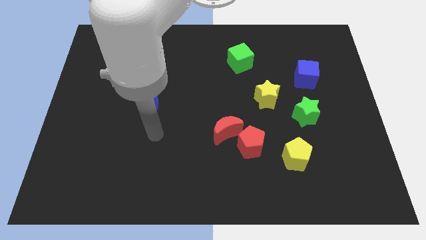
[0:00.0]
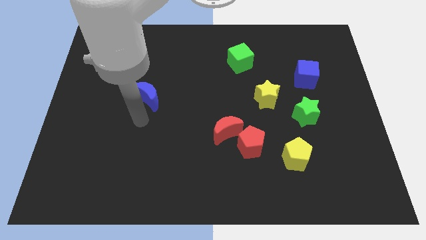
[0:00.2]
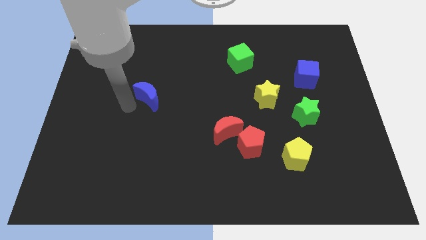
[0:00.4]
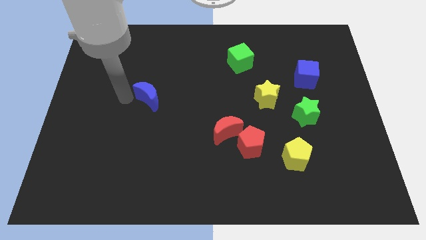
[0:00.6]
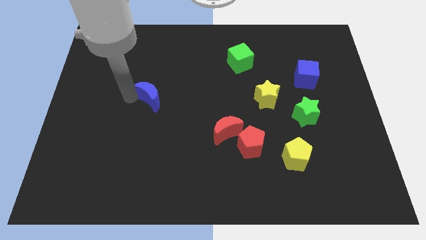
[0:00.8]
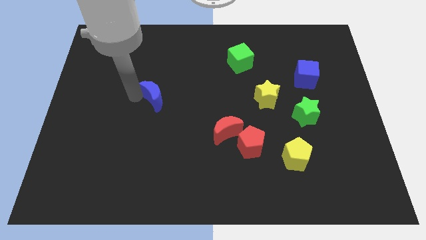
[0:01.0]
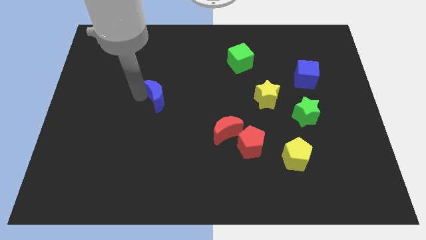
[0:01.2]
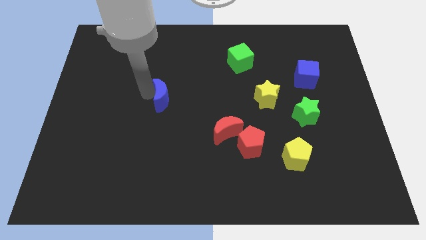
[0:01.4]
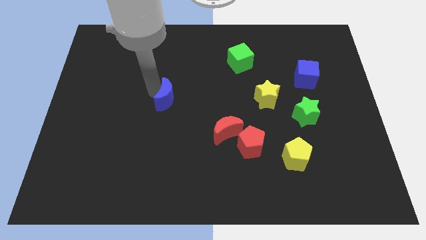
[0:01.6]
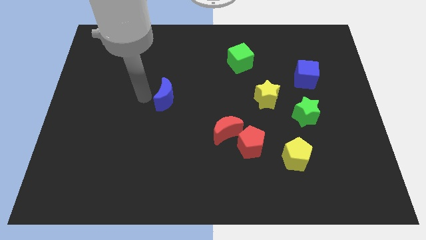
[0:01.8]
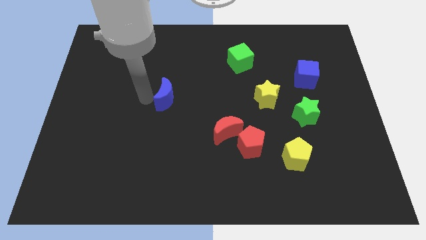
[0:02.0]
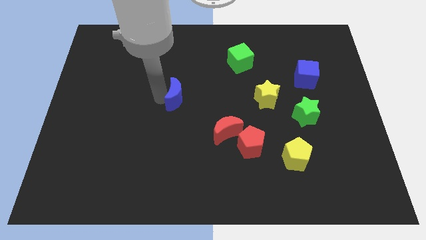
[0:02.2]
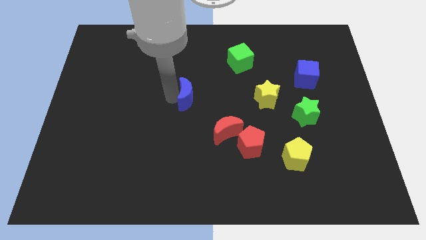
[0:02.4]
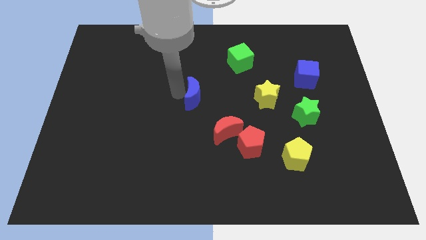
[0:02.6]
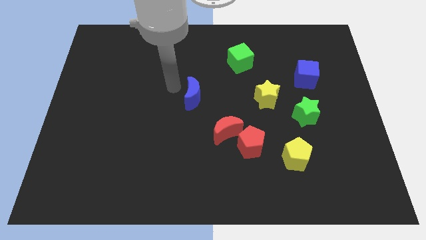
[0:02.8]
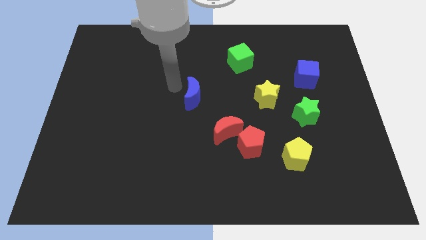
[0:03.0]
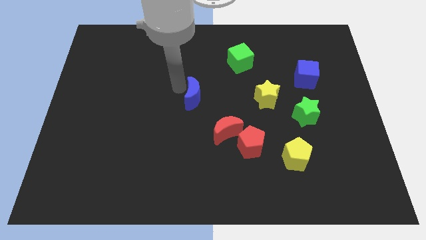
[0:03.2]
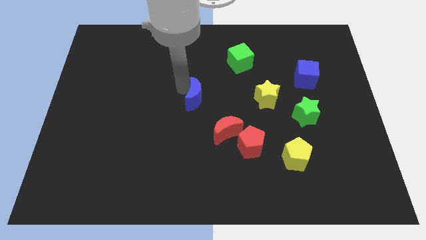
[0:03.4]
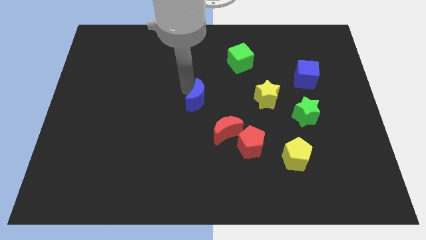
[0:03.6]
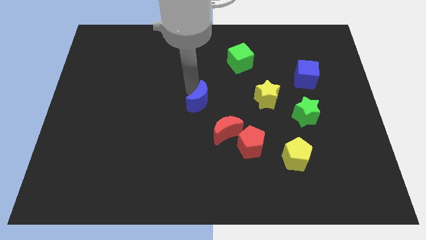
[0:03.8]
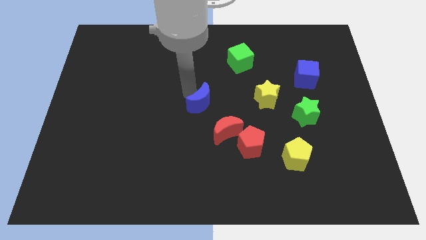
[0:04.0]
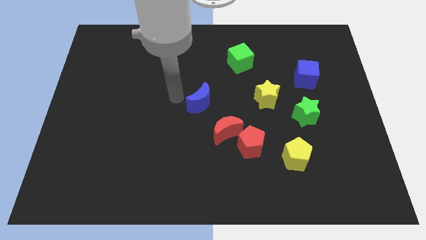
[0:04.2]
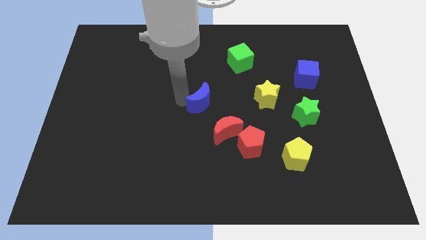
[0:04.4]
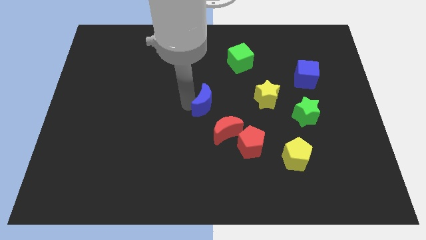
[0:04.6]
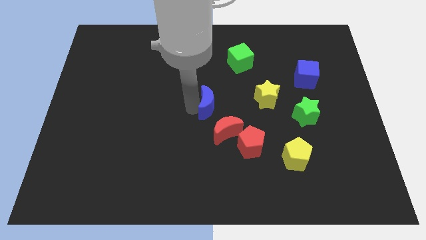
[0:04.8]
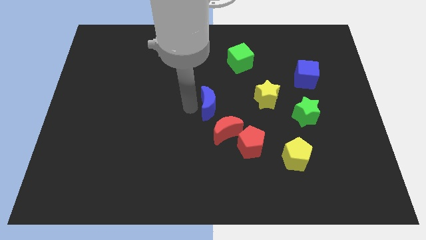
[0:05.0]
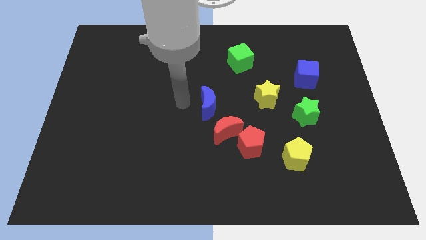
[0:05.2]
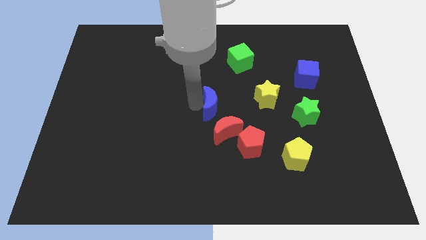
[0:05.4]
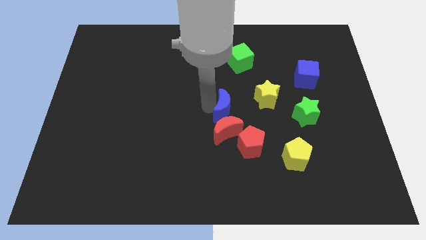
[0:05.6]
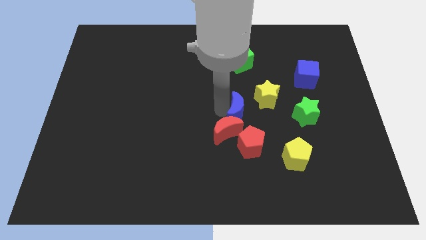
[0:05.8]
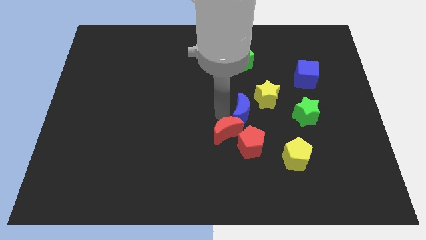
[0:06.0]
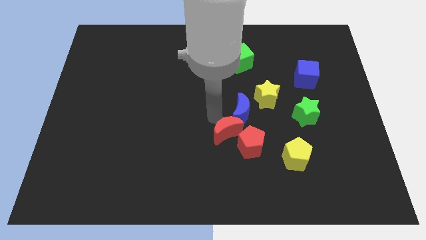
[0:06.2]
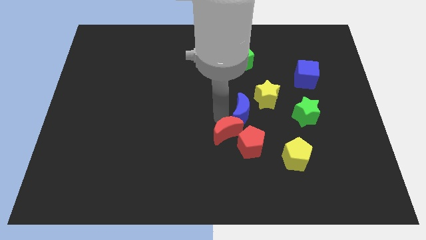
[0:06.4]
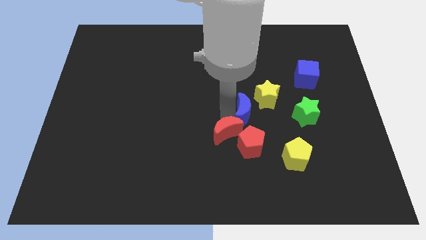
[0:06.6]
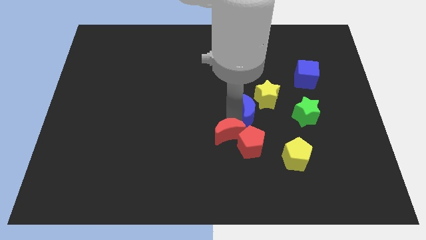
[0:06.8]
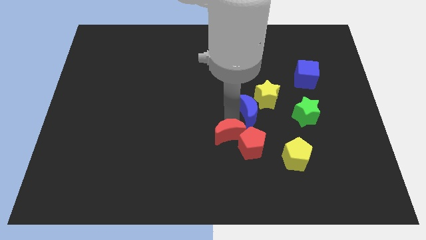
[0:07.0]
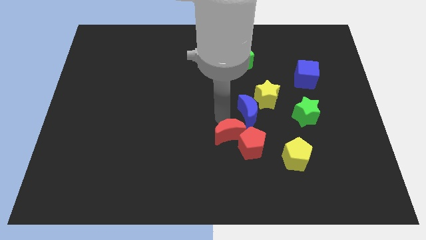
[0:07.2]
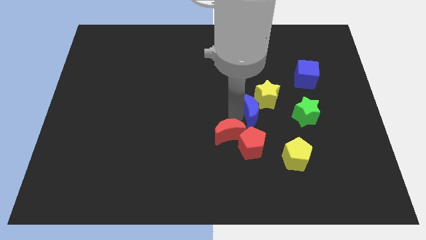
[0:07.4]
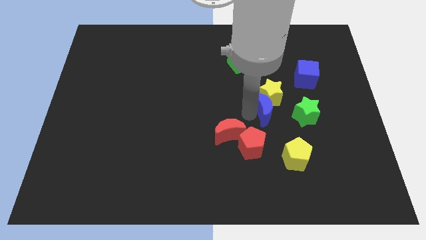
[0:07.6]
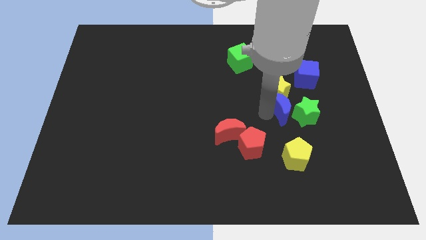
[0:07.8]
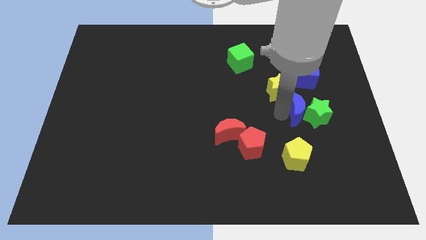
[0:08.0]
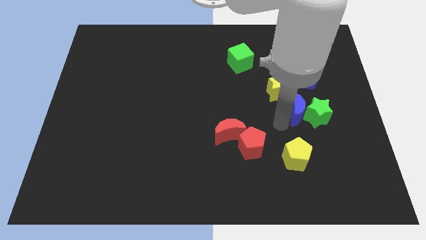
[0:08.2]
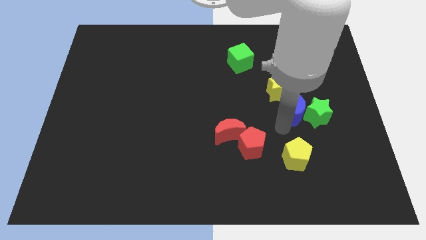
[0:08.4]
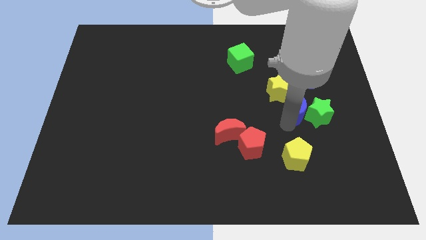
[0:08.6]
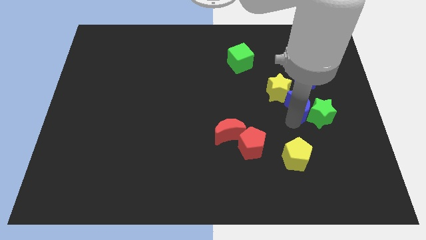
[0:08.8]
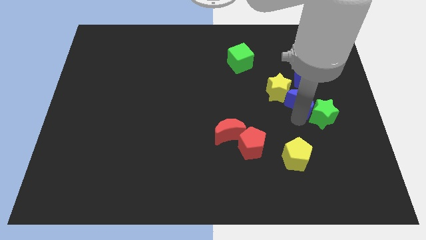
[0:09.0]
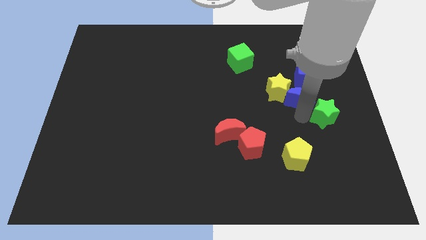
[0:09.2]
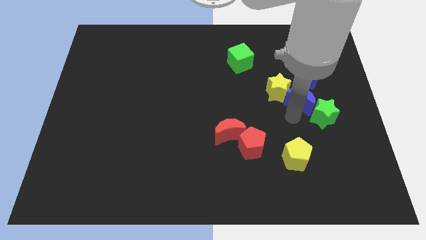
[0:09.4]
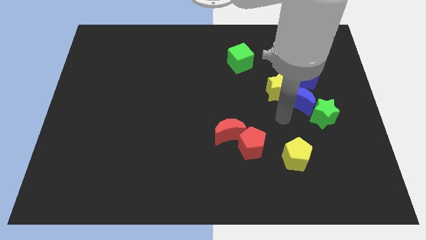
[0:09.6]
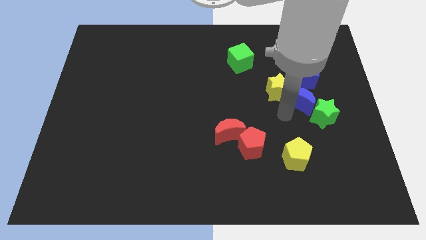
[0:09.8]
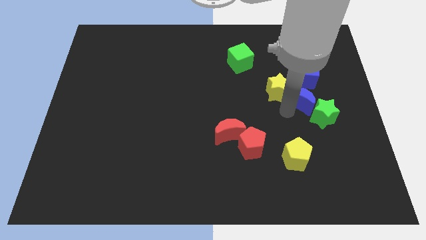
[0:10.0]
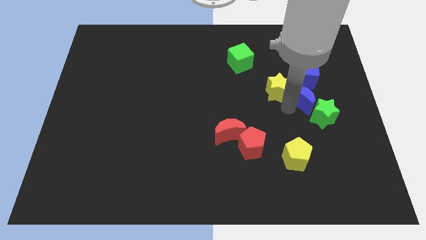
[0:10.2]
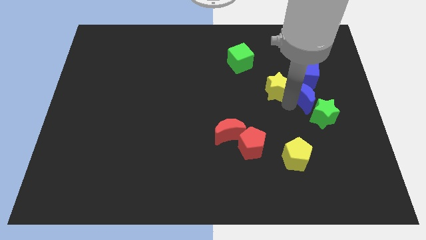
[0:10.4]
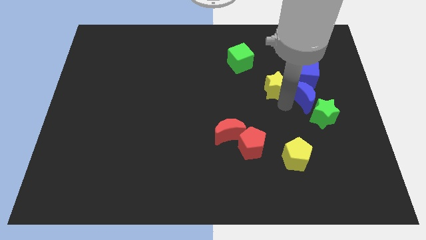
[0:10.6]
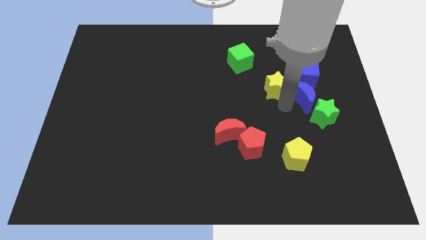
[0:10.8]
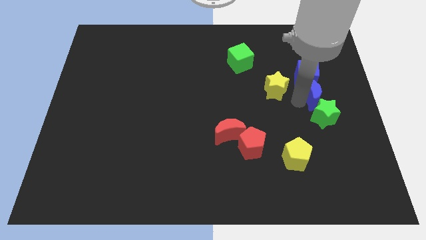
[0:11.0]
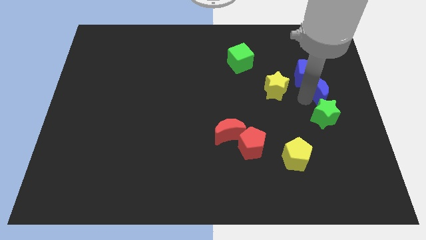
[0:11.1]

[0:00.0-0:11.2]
slide the blue moon to the center right

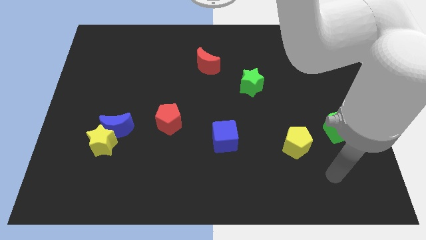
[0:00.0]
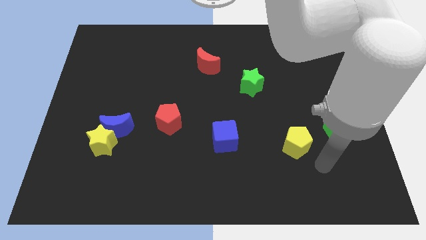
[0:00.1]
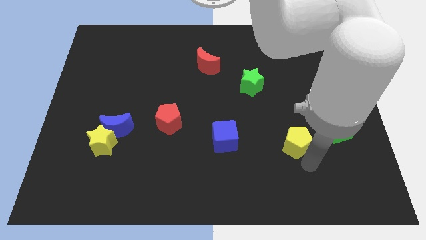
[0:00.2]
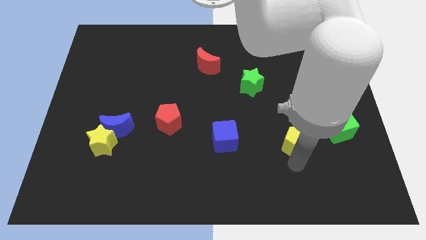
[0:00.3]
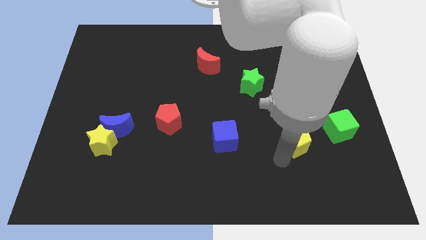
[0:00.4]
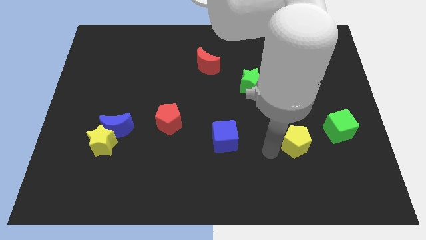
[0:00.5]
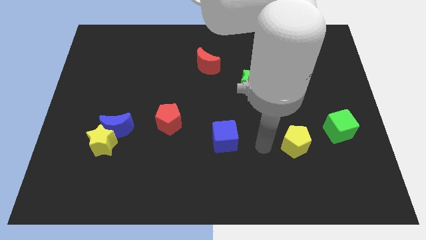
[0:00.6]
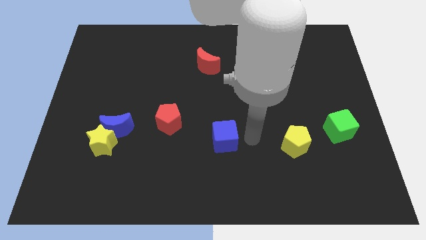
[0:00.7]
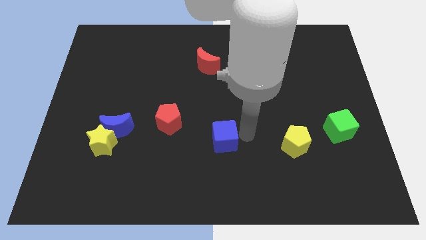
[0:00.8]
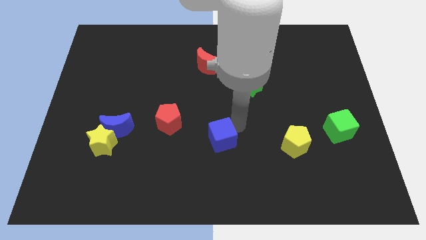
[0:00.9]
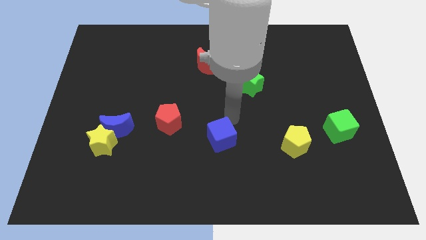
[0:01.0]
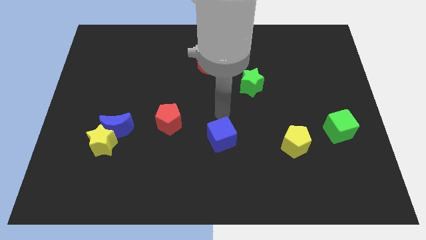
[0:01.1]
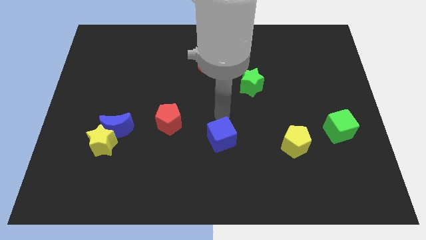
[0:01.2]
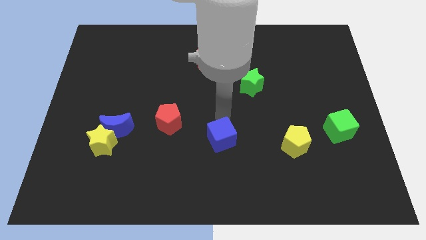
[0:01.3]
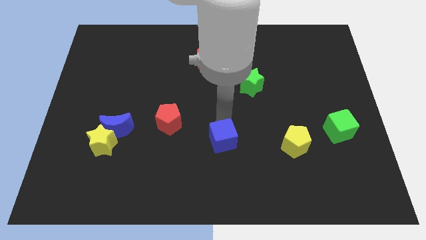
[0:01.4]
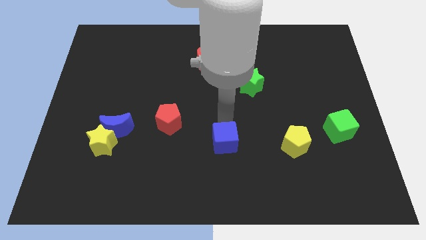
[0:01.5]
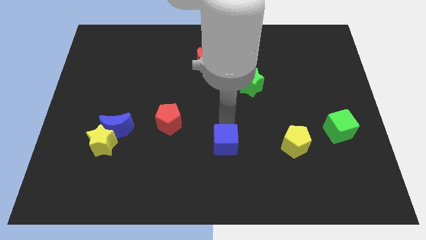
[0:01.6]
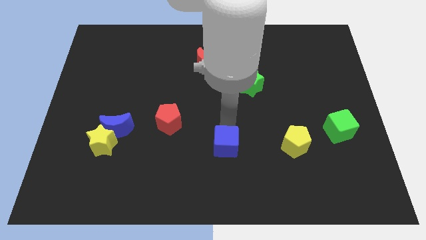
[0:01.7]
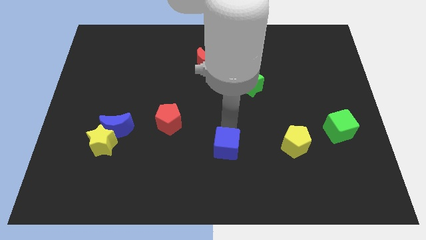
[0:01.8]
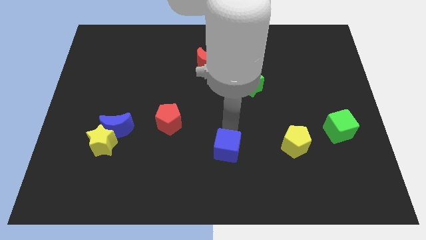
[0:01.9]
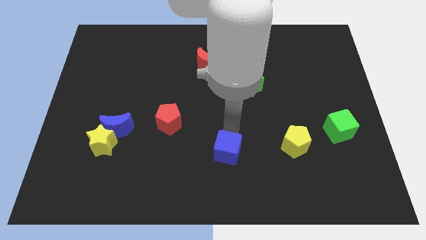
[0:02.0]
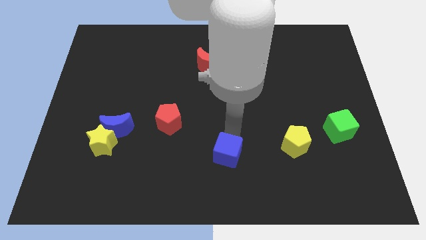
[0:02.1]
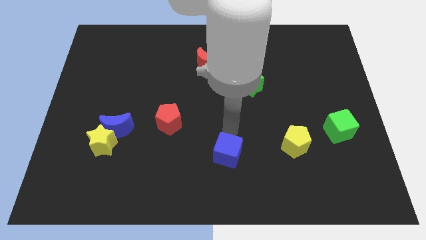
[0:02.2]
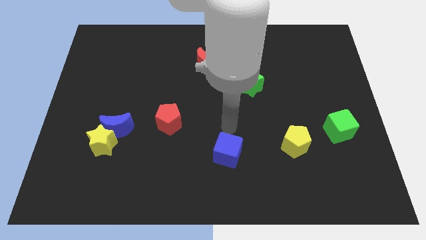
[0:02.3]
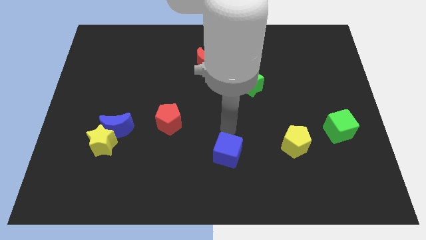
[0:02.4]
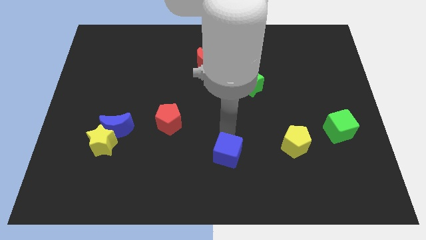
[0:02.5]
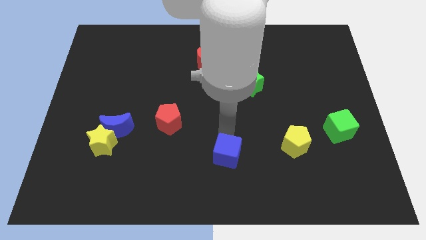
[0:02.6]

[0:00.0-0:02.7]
slide the blue cube to the bottom side
